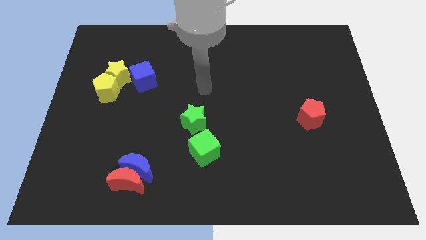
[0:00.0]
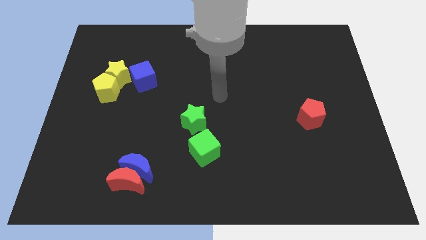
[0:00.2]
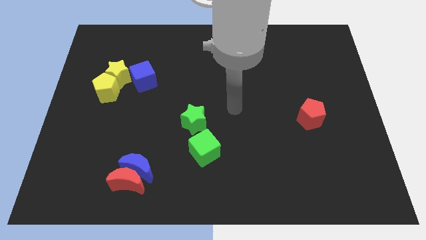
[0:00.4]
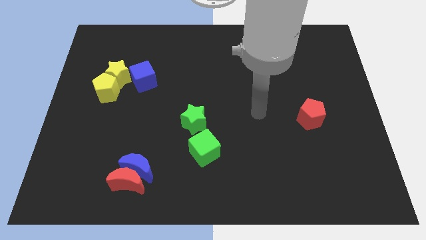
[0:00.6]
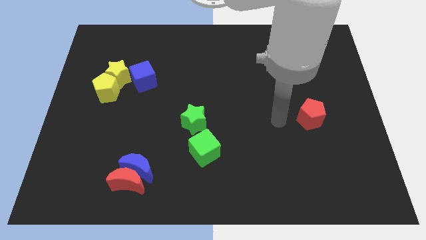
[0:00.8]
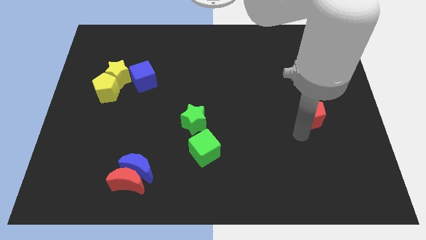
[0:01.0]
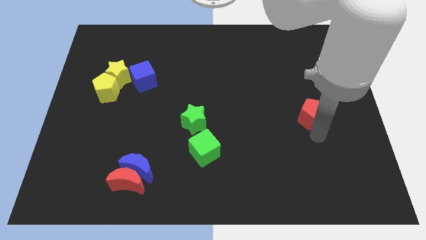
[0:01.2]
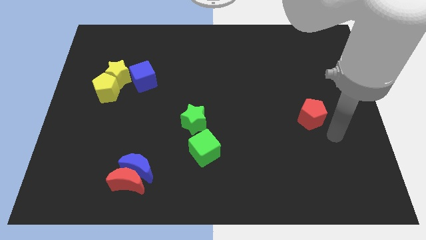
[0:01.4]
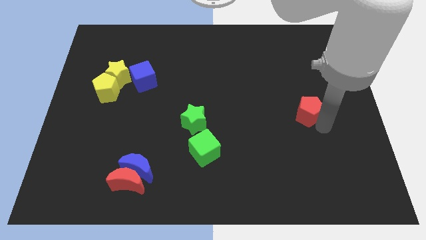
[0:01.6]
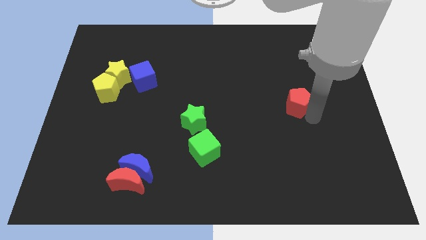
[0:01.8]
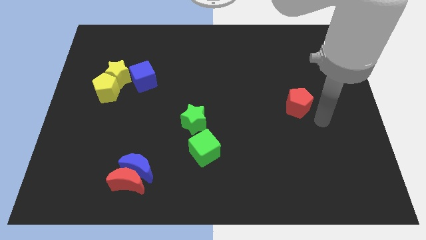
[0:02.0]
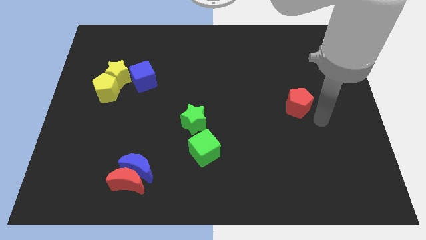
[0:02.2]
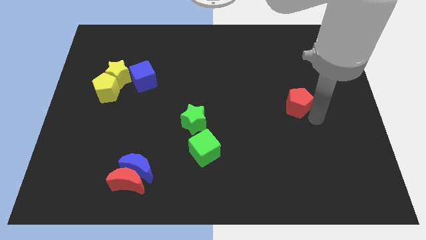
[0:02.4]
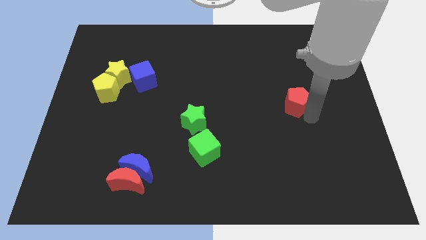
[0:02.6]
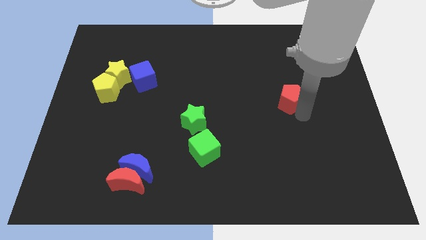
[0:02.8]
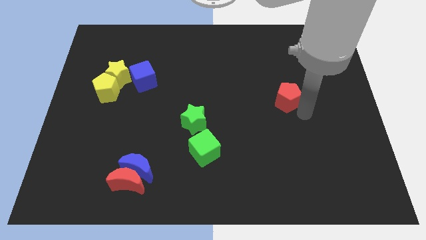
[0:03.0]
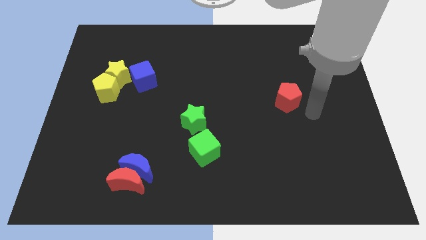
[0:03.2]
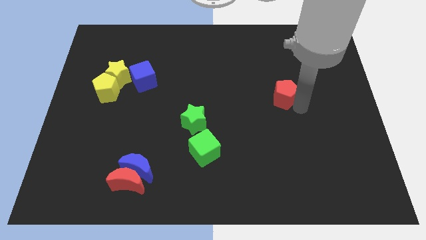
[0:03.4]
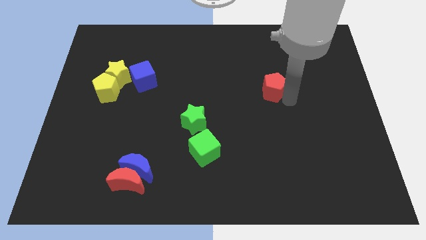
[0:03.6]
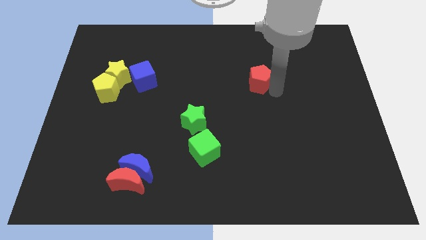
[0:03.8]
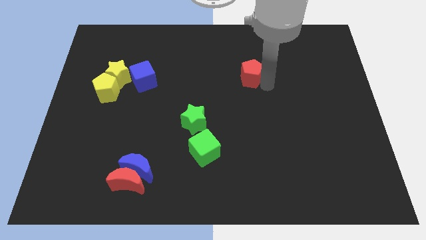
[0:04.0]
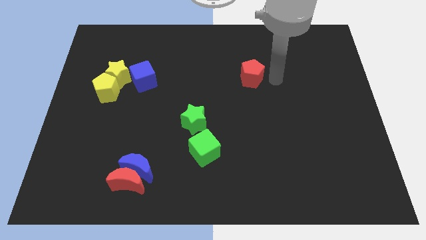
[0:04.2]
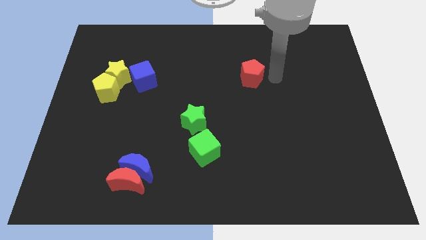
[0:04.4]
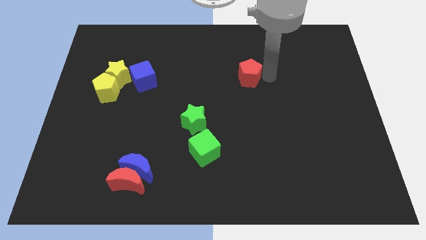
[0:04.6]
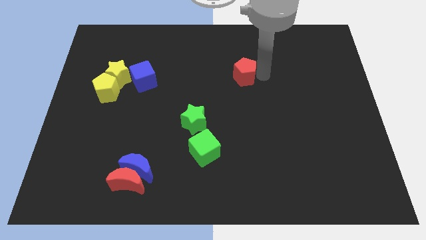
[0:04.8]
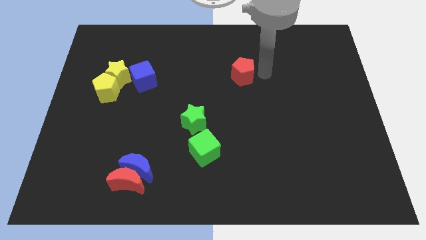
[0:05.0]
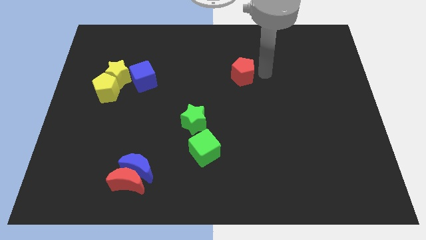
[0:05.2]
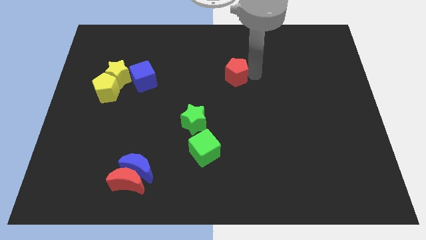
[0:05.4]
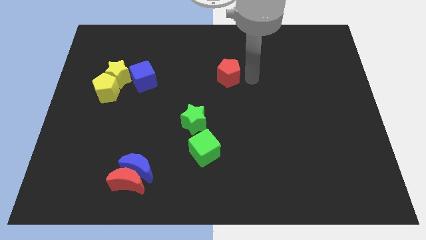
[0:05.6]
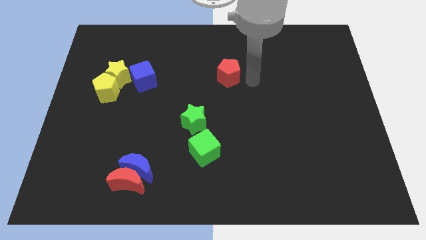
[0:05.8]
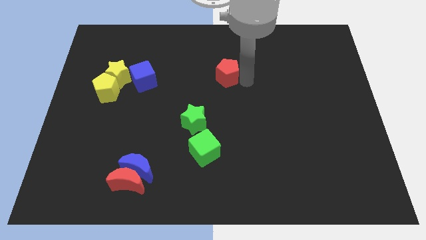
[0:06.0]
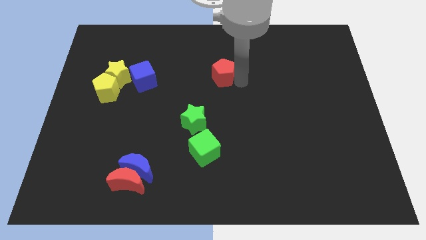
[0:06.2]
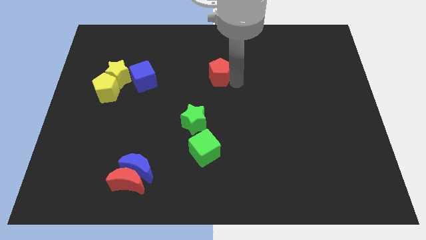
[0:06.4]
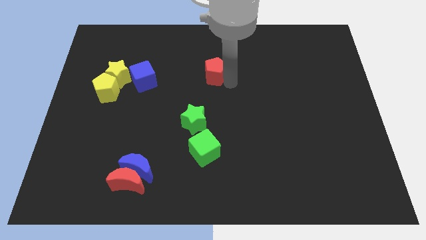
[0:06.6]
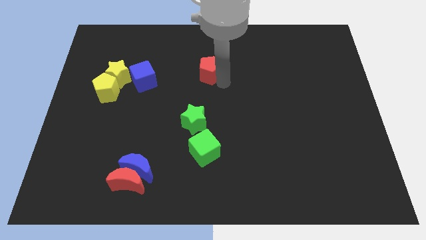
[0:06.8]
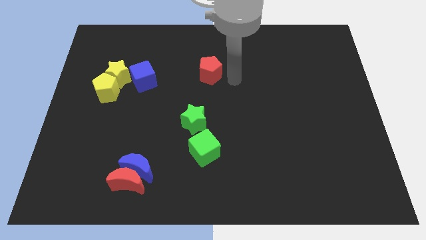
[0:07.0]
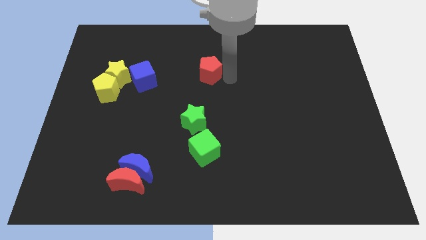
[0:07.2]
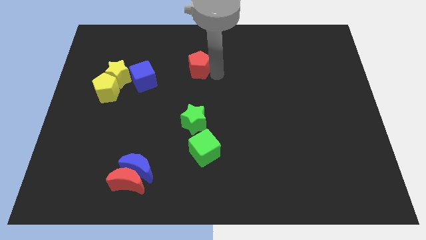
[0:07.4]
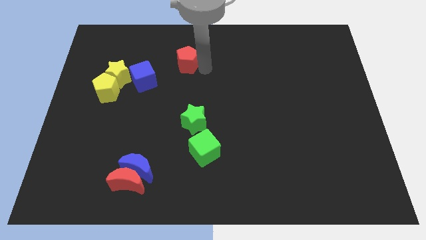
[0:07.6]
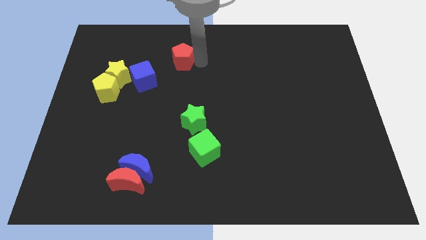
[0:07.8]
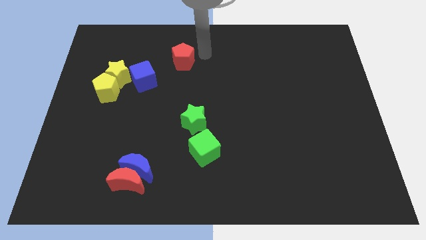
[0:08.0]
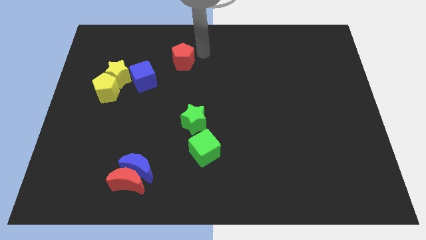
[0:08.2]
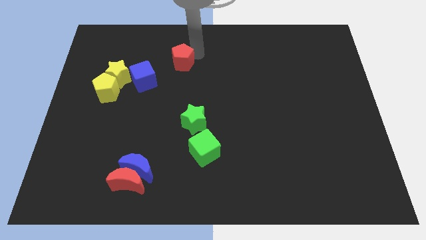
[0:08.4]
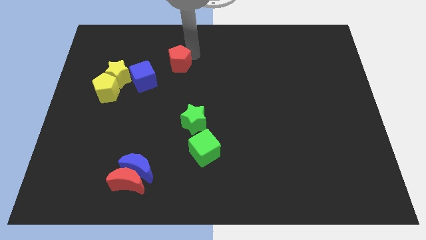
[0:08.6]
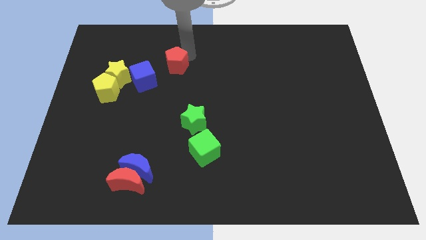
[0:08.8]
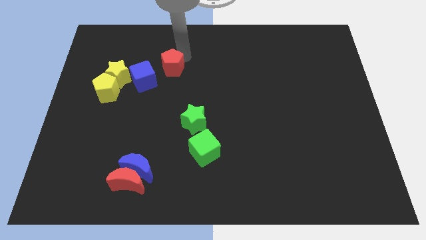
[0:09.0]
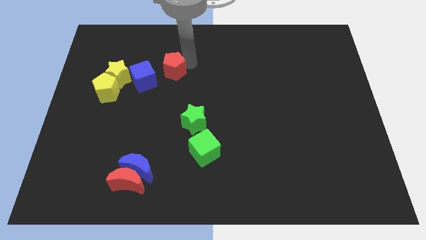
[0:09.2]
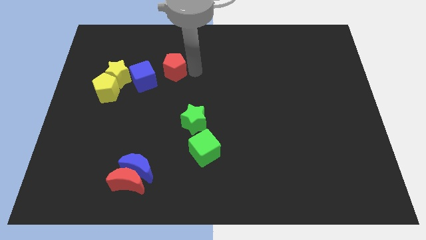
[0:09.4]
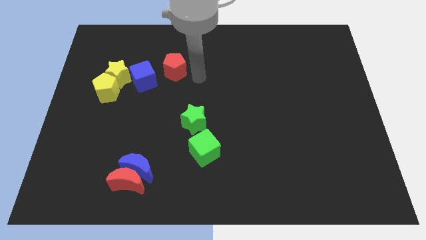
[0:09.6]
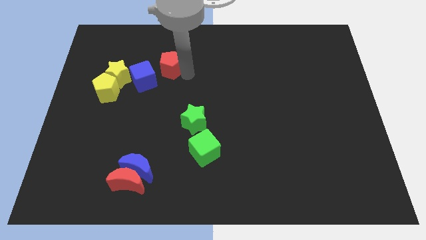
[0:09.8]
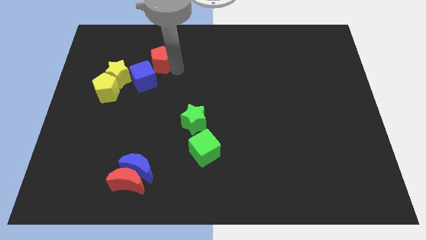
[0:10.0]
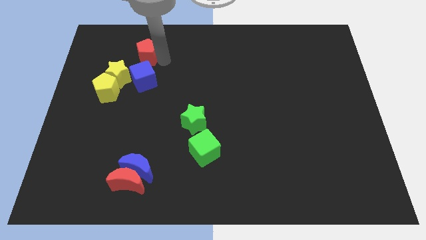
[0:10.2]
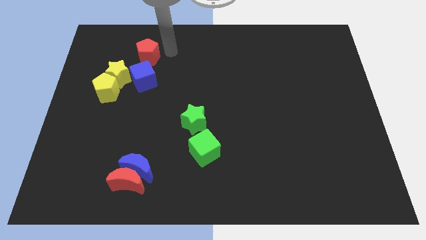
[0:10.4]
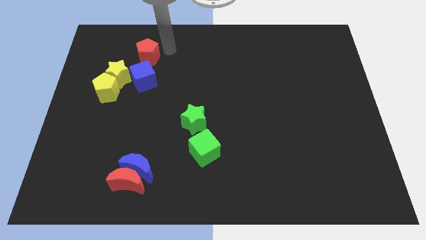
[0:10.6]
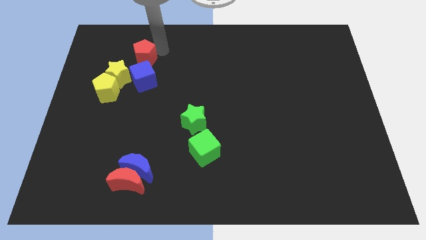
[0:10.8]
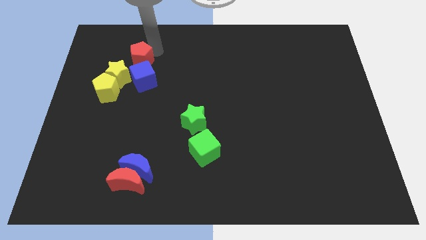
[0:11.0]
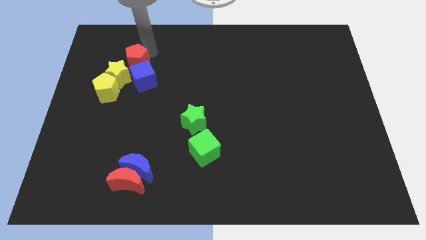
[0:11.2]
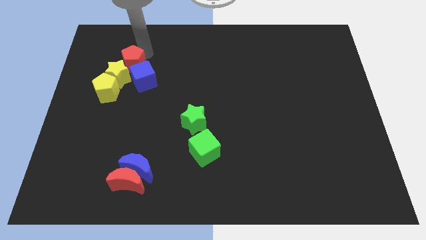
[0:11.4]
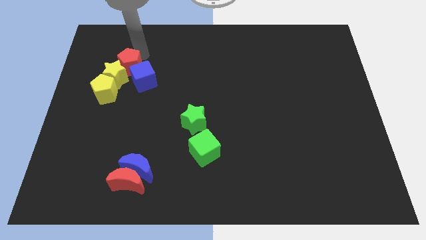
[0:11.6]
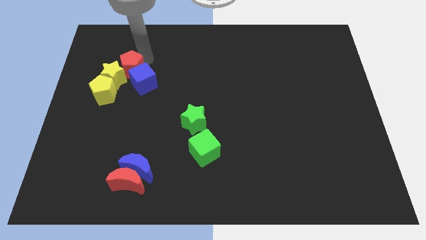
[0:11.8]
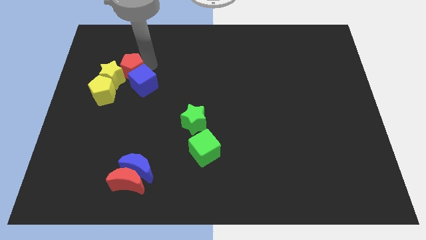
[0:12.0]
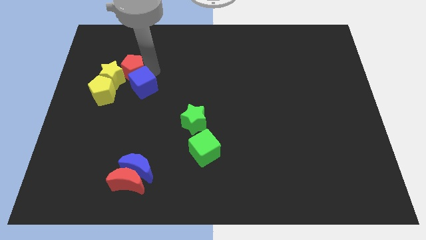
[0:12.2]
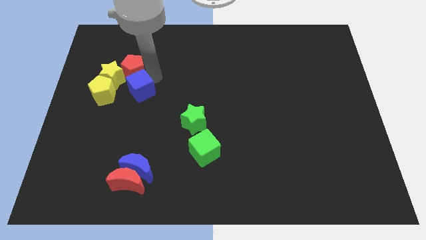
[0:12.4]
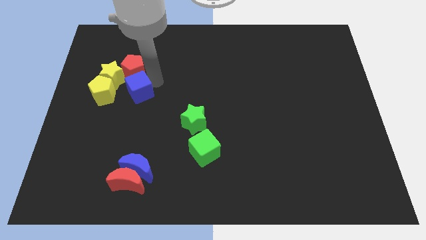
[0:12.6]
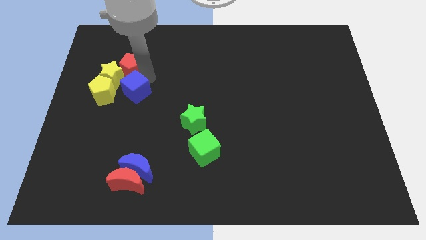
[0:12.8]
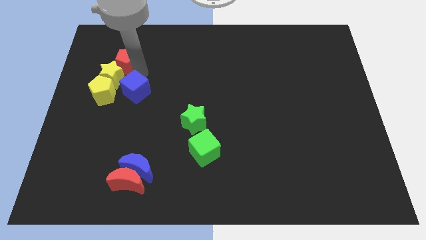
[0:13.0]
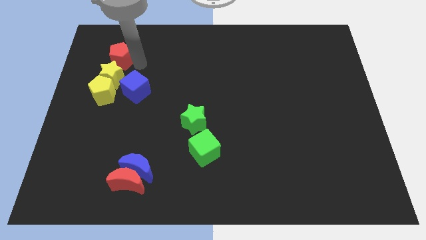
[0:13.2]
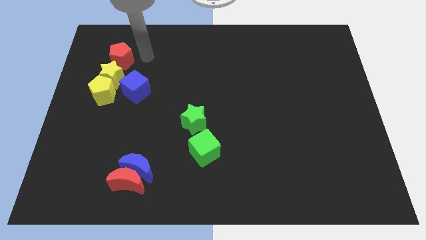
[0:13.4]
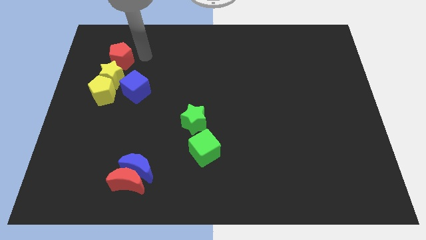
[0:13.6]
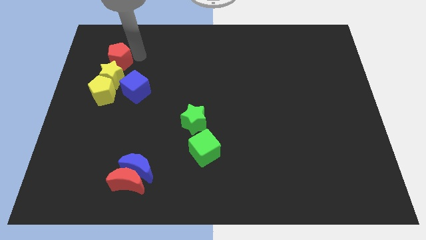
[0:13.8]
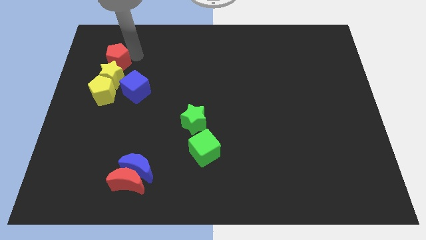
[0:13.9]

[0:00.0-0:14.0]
slide the red pentagon to the top left of the yellow star

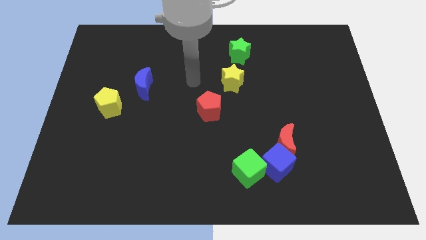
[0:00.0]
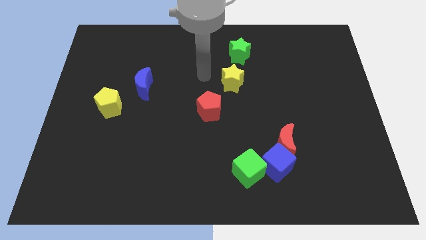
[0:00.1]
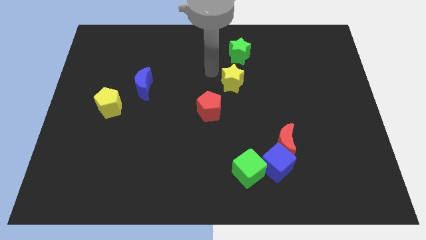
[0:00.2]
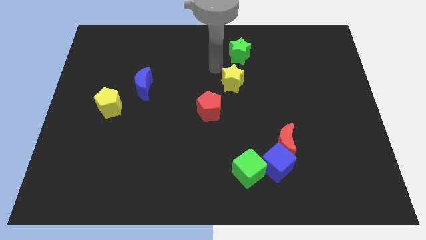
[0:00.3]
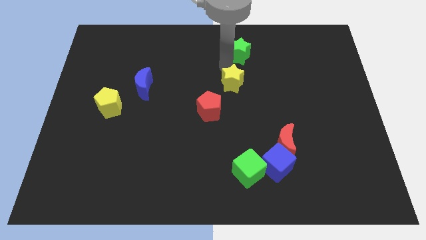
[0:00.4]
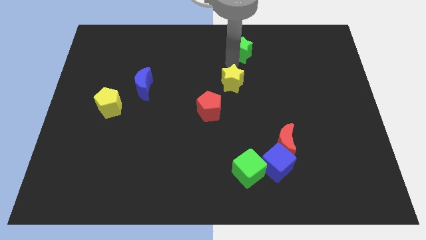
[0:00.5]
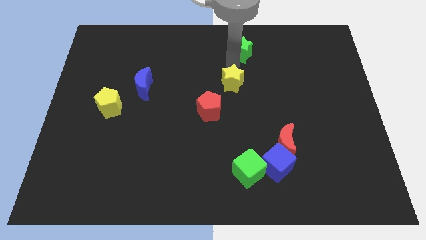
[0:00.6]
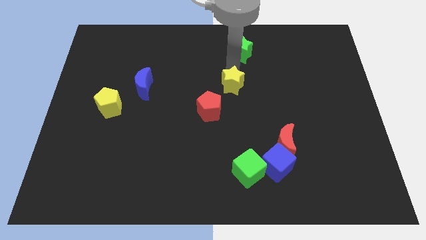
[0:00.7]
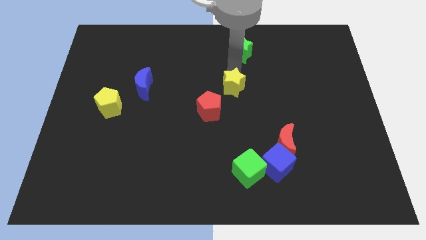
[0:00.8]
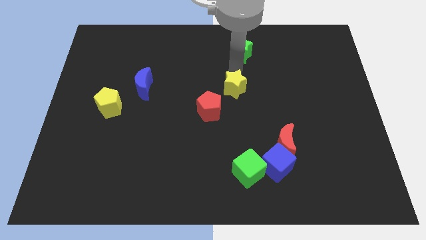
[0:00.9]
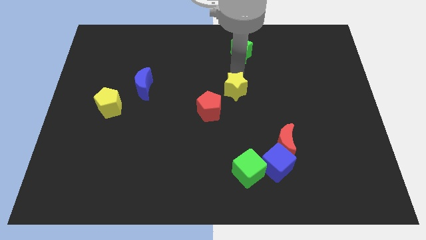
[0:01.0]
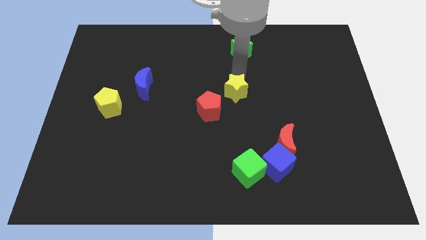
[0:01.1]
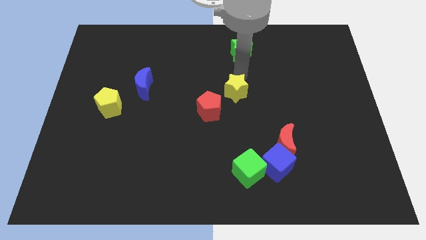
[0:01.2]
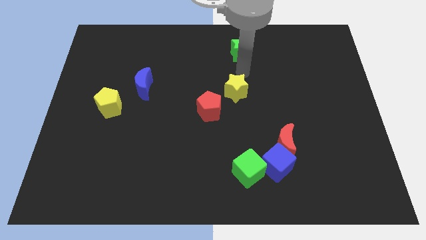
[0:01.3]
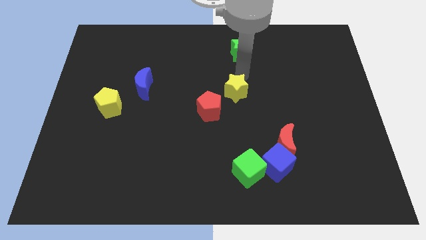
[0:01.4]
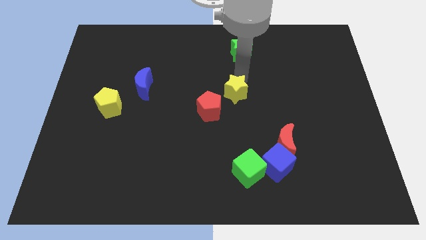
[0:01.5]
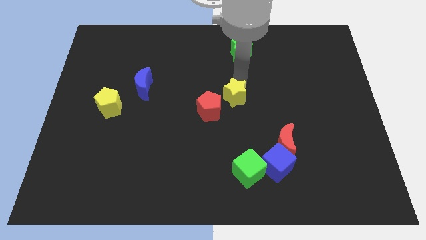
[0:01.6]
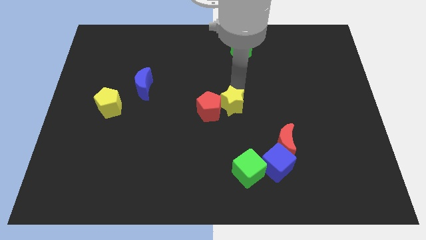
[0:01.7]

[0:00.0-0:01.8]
put the yellow star diagonally down and to the right of the red pentagon
